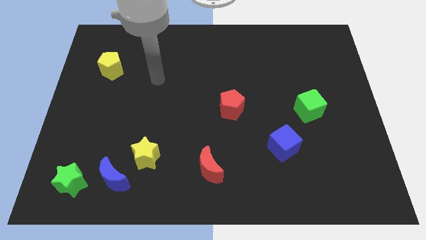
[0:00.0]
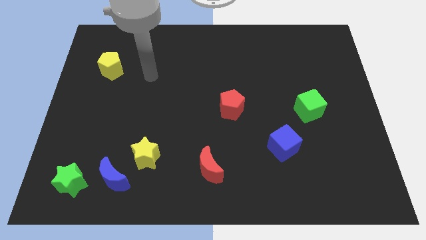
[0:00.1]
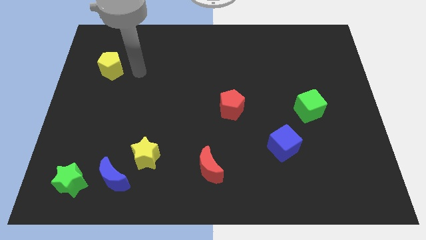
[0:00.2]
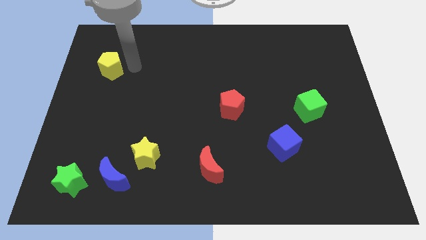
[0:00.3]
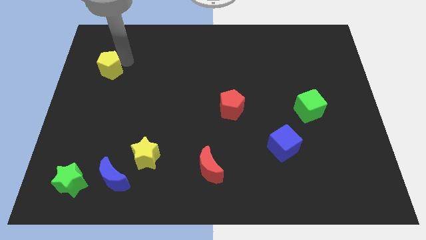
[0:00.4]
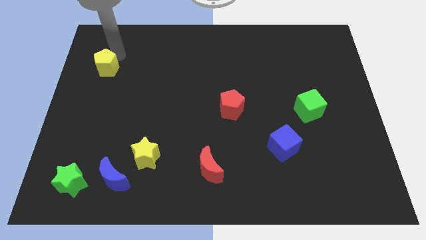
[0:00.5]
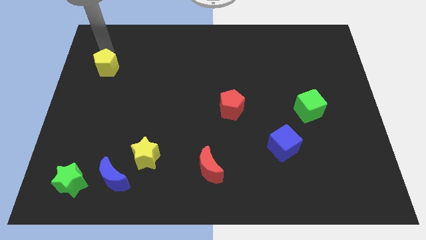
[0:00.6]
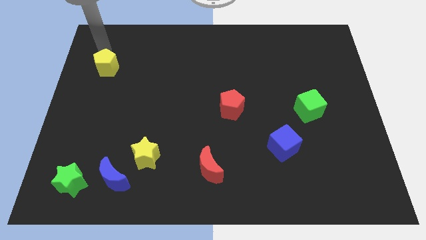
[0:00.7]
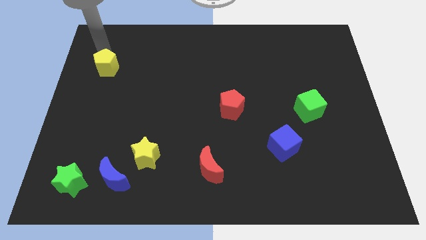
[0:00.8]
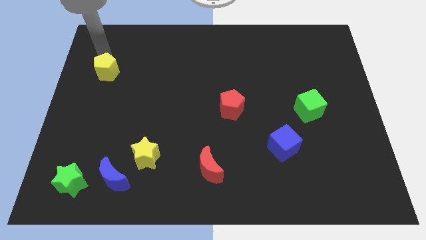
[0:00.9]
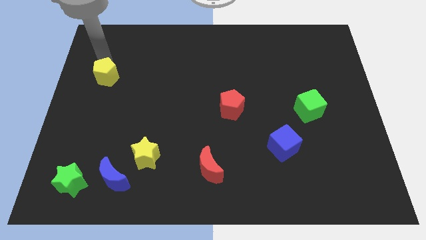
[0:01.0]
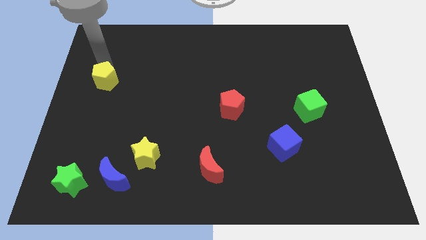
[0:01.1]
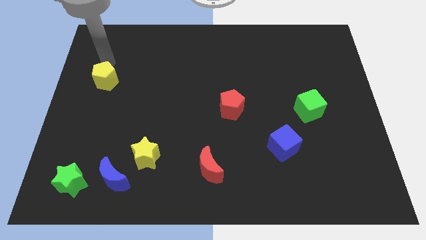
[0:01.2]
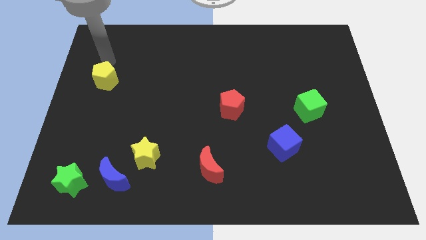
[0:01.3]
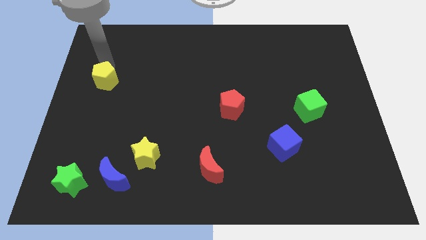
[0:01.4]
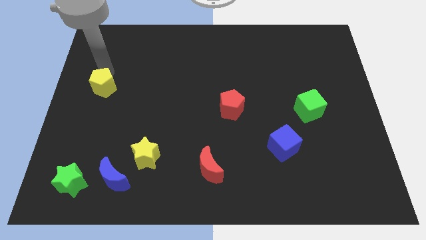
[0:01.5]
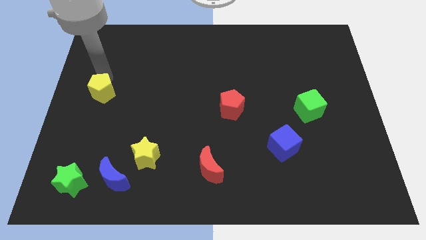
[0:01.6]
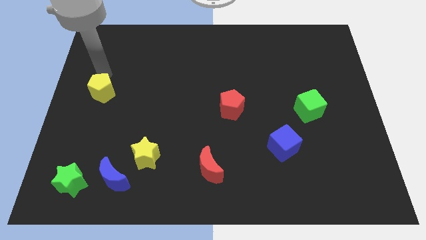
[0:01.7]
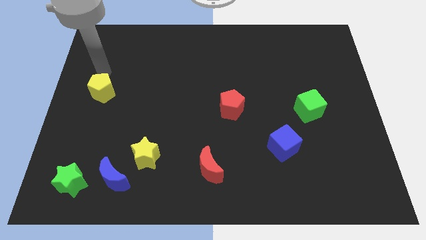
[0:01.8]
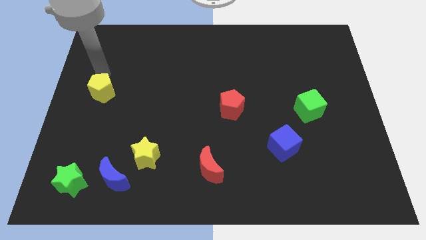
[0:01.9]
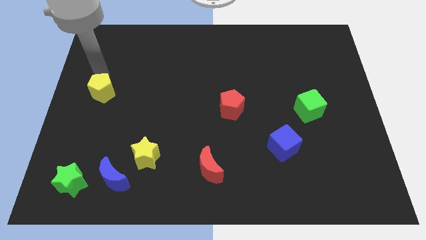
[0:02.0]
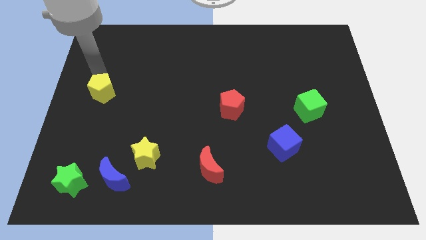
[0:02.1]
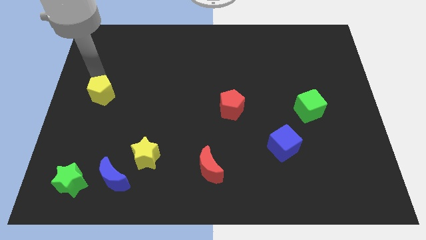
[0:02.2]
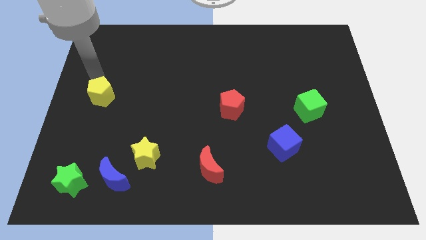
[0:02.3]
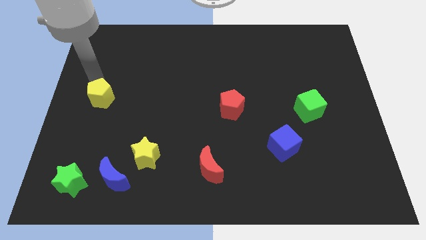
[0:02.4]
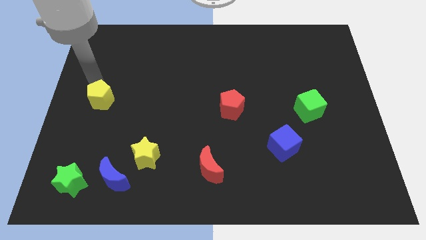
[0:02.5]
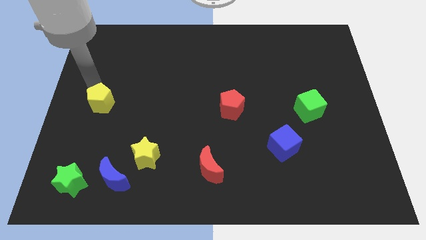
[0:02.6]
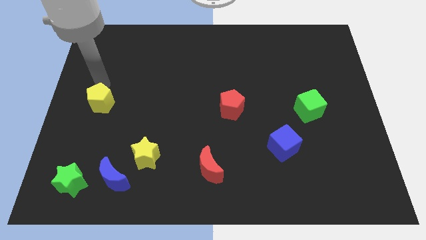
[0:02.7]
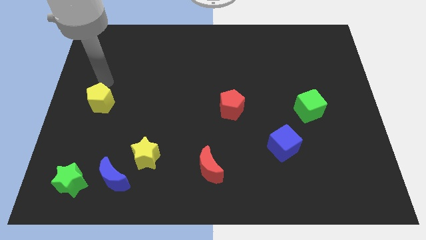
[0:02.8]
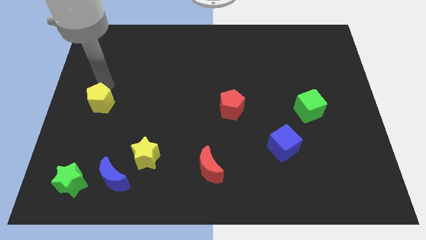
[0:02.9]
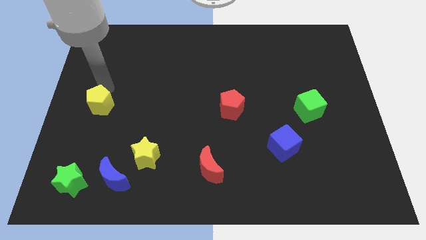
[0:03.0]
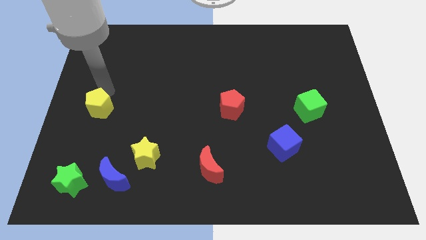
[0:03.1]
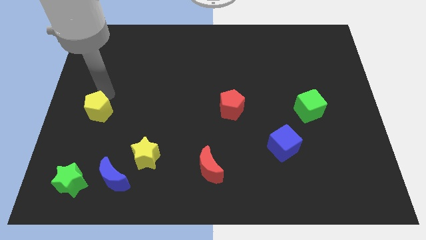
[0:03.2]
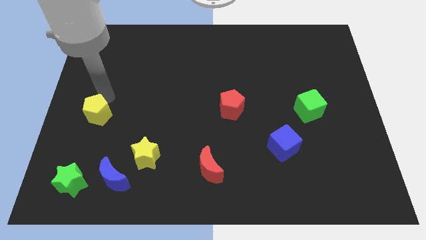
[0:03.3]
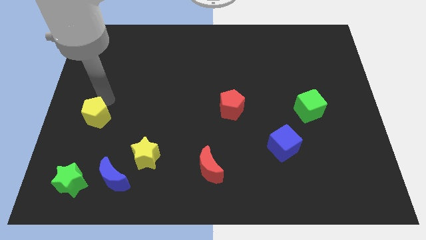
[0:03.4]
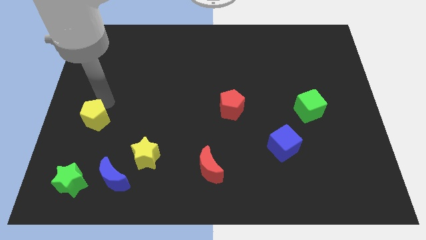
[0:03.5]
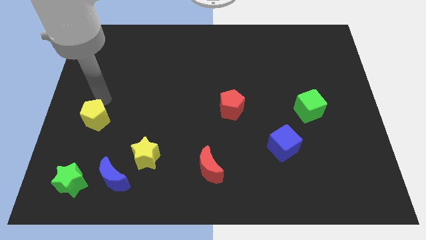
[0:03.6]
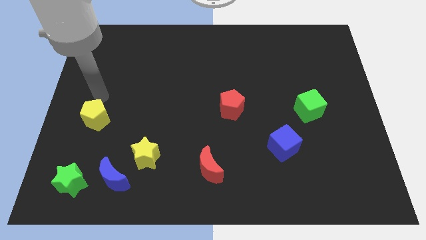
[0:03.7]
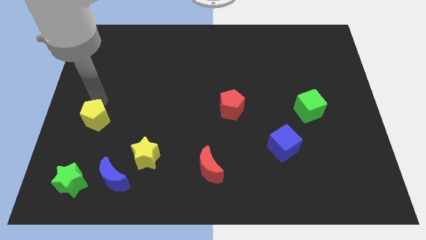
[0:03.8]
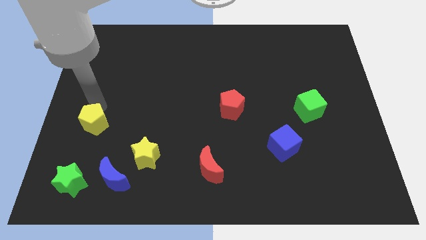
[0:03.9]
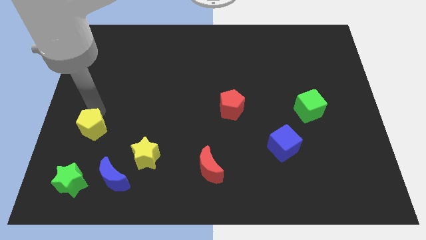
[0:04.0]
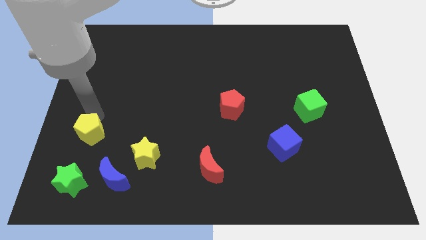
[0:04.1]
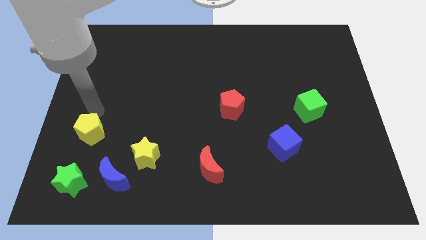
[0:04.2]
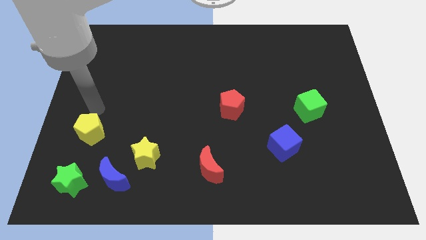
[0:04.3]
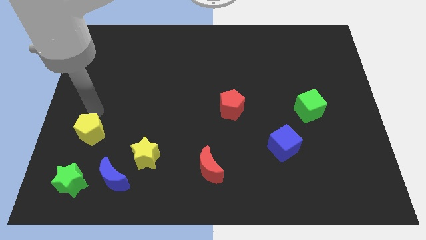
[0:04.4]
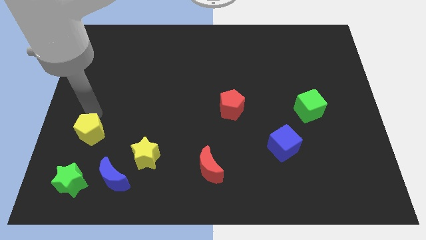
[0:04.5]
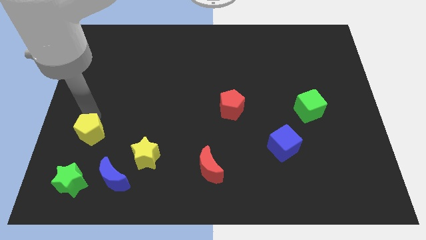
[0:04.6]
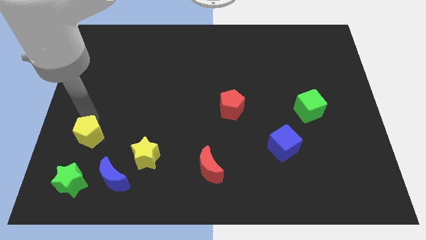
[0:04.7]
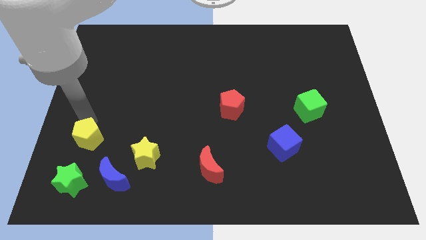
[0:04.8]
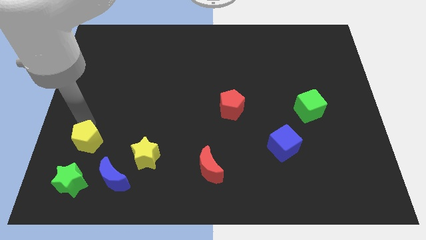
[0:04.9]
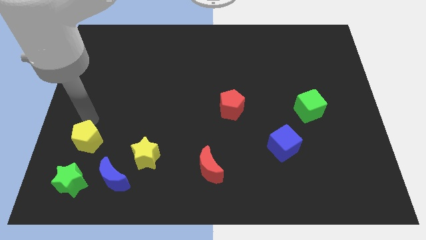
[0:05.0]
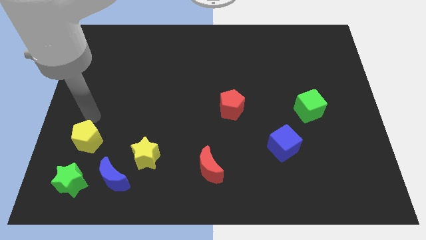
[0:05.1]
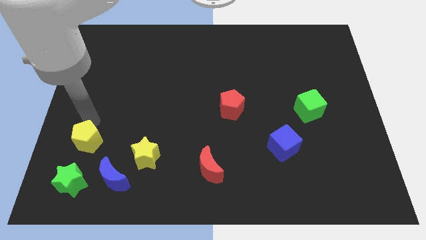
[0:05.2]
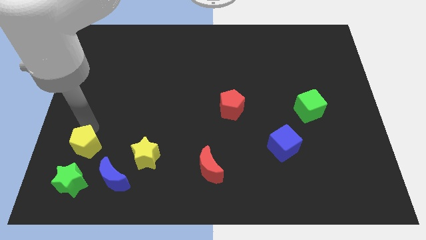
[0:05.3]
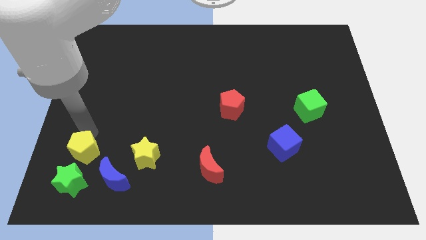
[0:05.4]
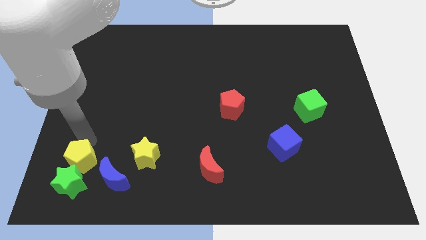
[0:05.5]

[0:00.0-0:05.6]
push the yellow pentagon close to the green star

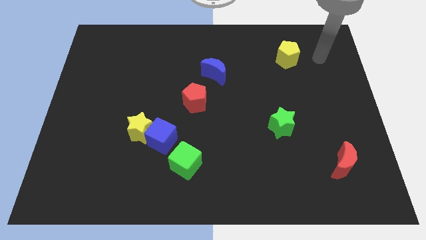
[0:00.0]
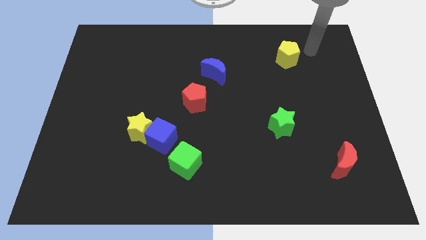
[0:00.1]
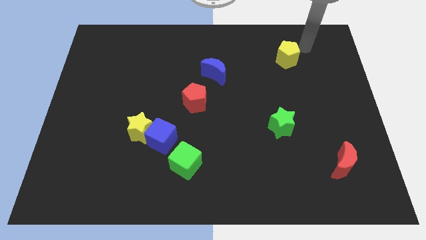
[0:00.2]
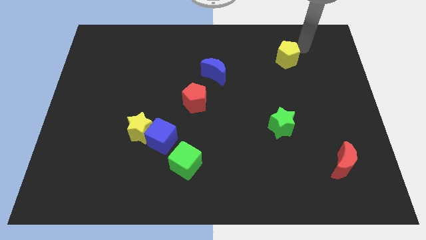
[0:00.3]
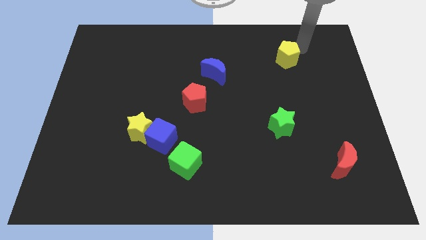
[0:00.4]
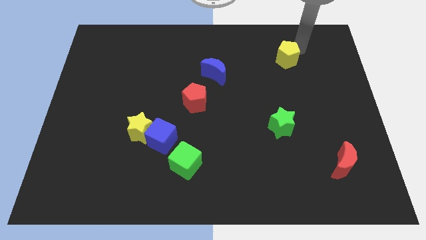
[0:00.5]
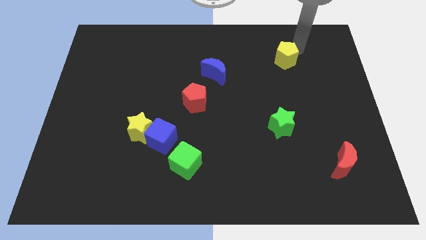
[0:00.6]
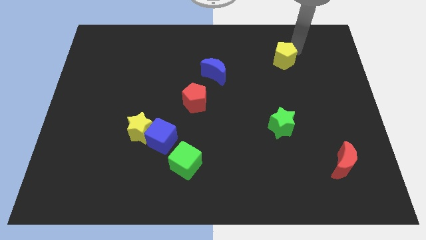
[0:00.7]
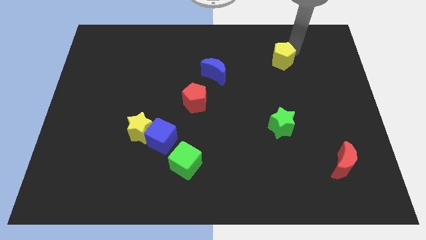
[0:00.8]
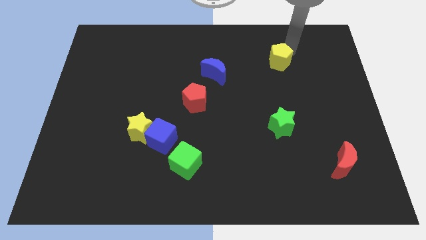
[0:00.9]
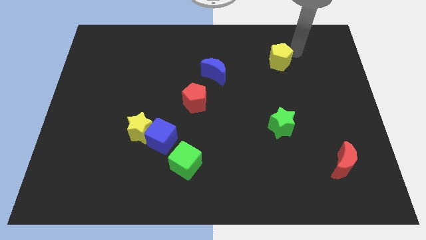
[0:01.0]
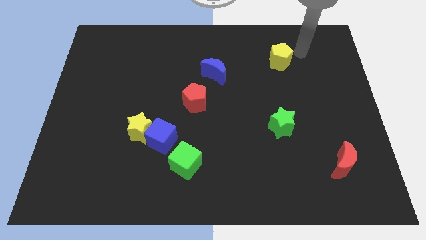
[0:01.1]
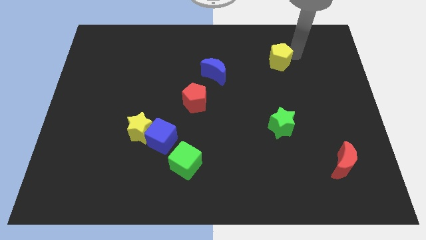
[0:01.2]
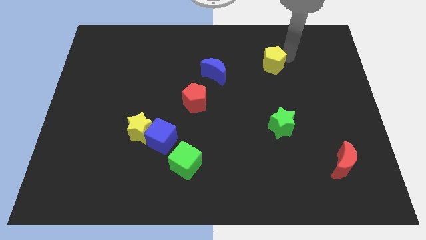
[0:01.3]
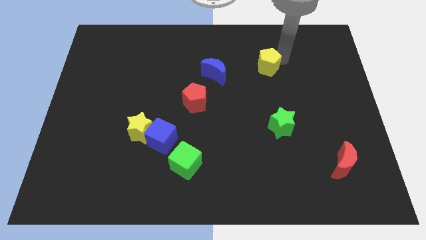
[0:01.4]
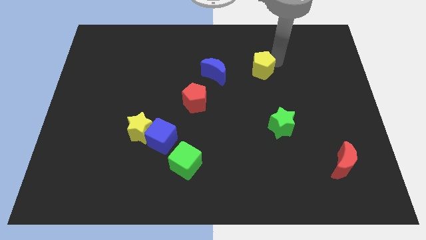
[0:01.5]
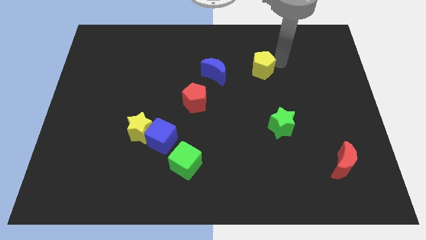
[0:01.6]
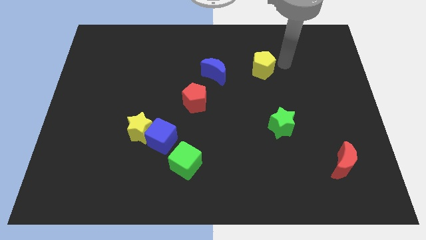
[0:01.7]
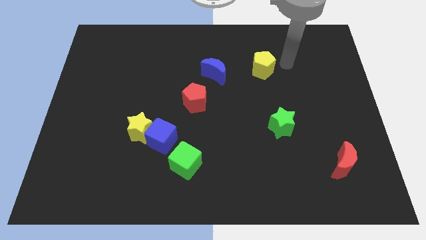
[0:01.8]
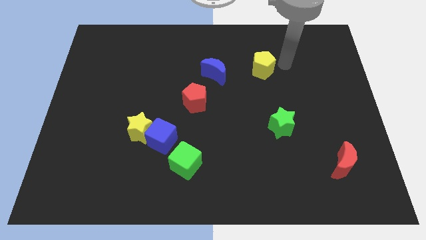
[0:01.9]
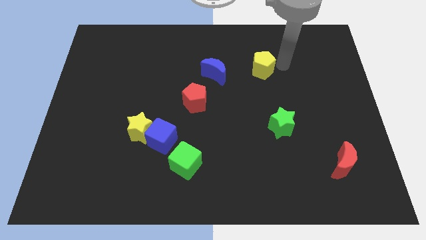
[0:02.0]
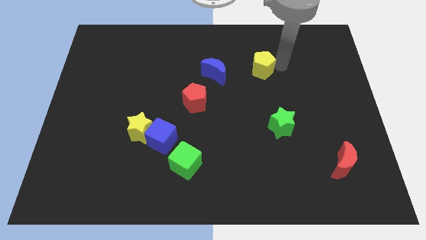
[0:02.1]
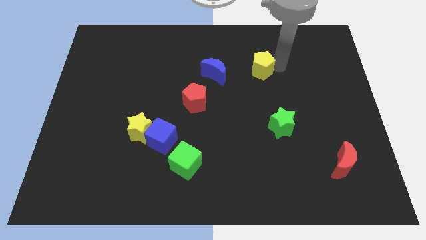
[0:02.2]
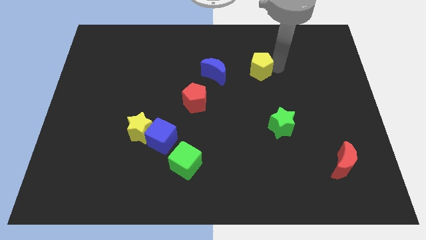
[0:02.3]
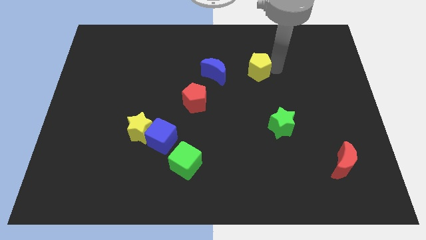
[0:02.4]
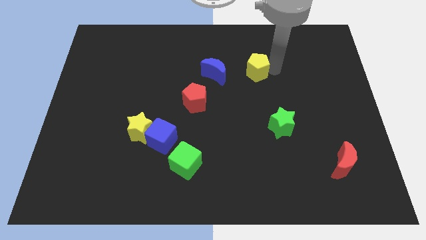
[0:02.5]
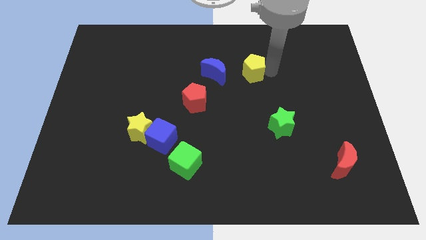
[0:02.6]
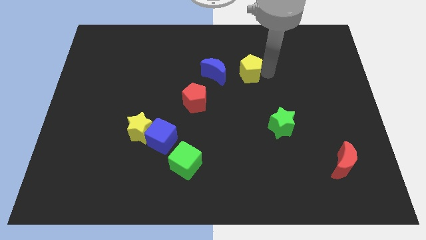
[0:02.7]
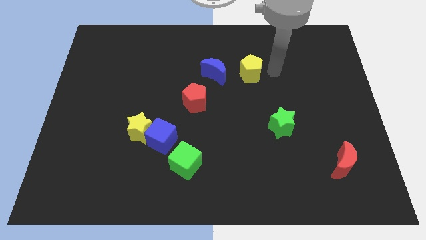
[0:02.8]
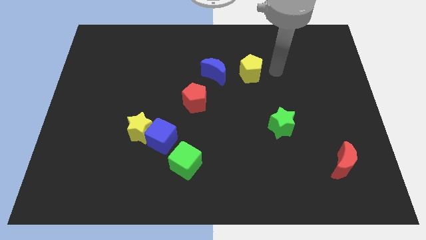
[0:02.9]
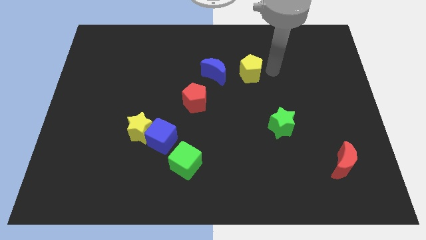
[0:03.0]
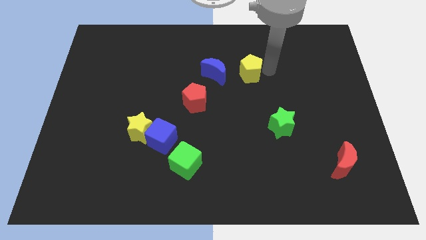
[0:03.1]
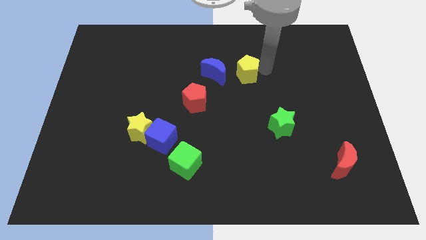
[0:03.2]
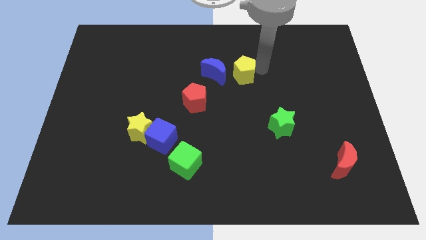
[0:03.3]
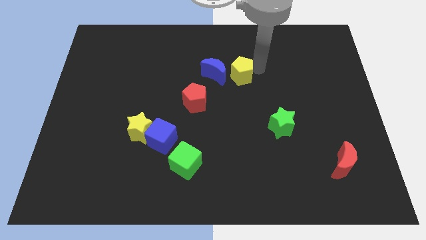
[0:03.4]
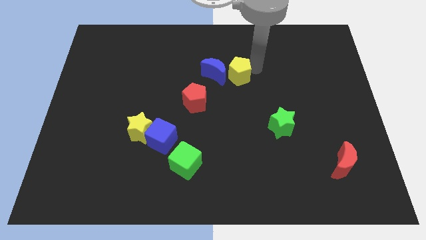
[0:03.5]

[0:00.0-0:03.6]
put the yellow pentagon next to the blue moon
